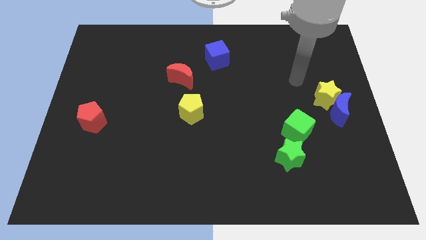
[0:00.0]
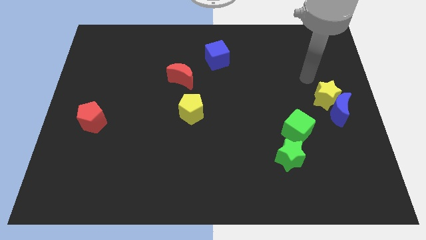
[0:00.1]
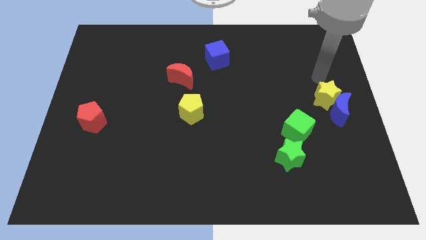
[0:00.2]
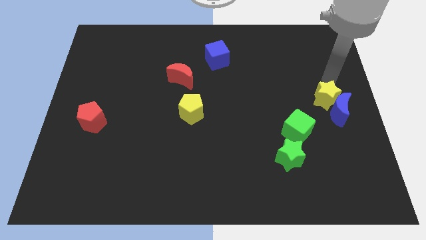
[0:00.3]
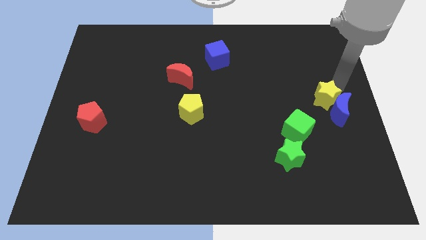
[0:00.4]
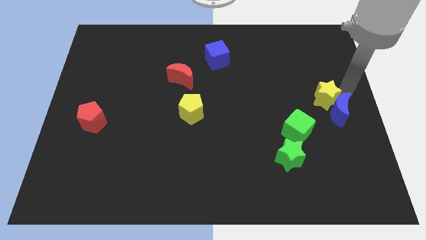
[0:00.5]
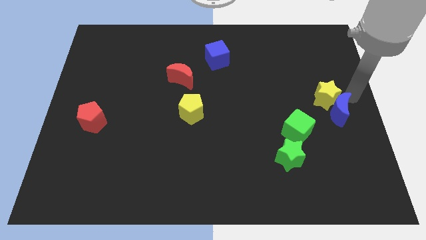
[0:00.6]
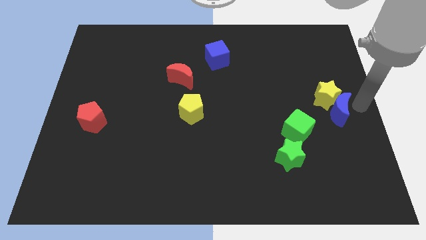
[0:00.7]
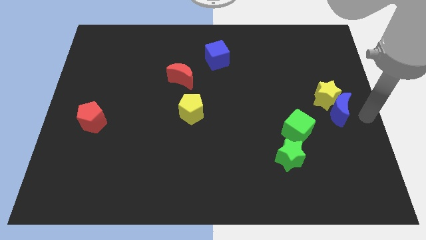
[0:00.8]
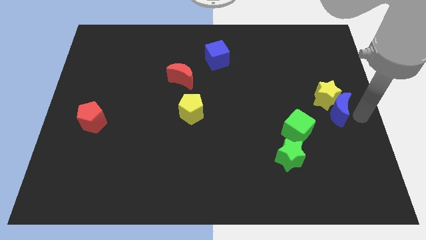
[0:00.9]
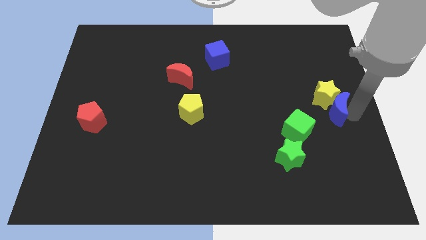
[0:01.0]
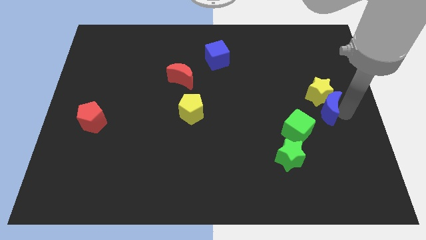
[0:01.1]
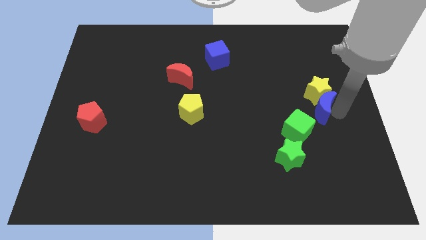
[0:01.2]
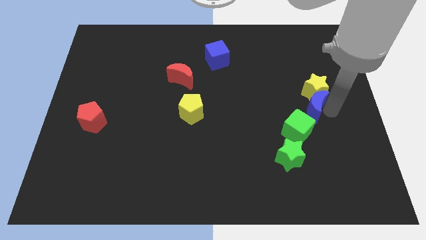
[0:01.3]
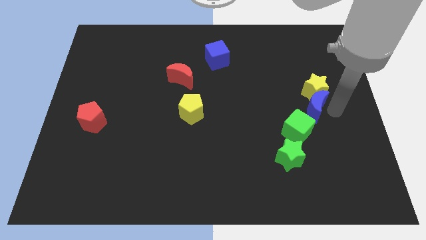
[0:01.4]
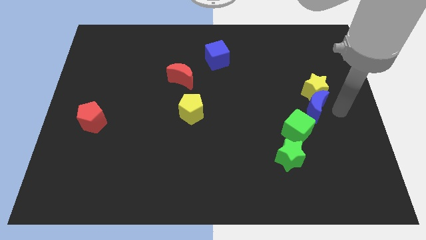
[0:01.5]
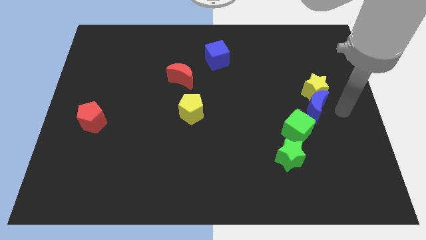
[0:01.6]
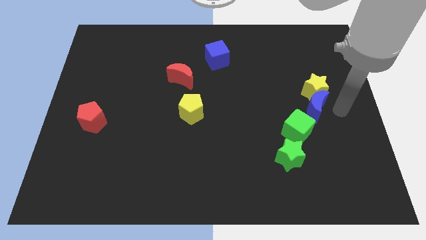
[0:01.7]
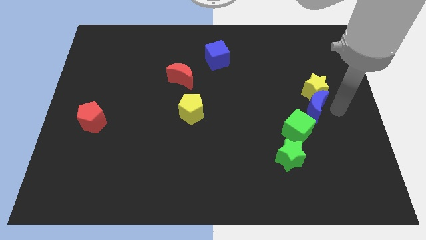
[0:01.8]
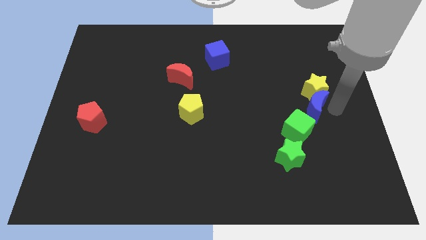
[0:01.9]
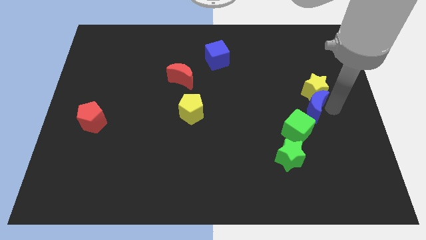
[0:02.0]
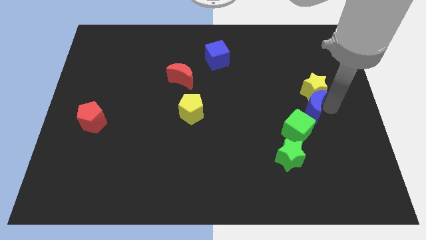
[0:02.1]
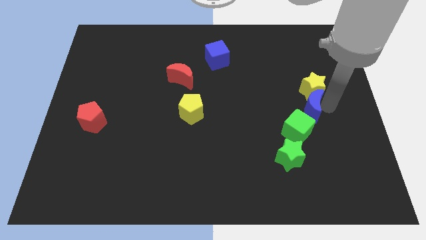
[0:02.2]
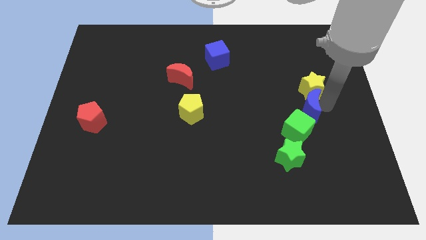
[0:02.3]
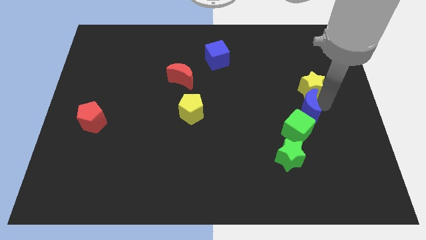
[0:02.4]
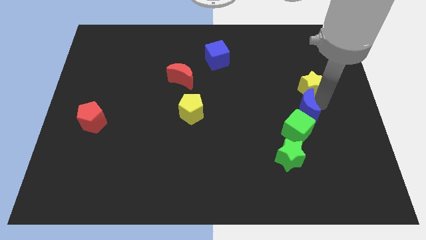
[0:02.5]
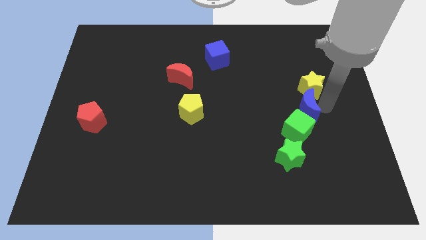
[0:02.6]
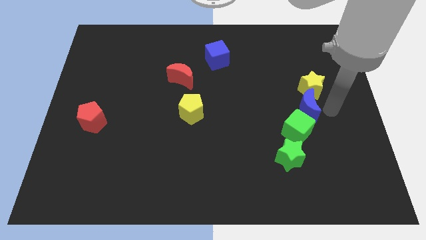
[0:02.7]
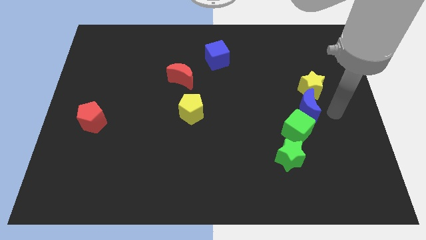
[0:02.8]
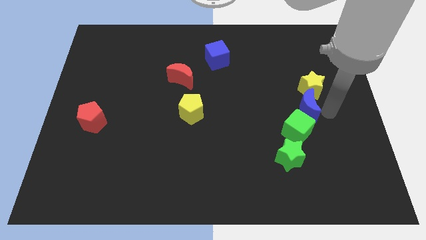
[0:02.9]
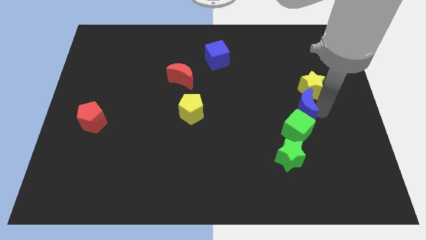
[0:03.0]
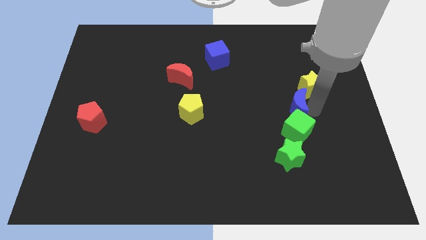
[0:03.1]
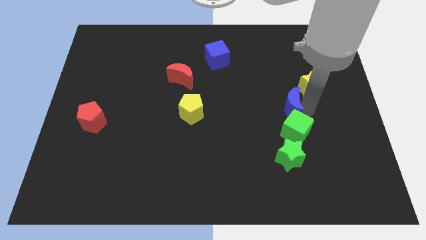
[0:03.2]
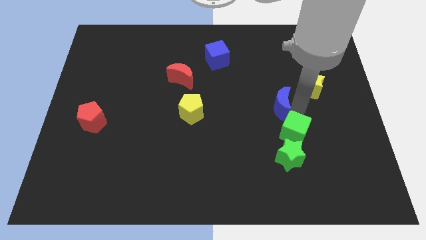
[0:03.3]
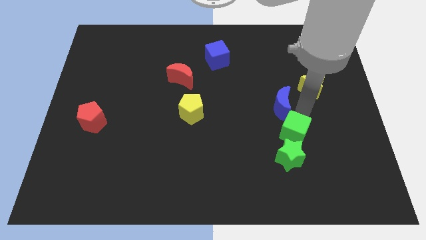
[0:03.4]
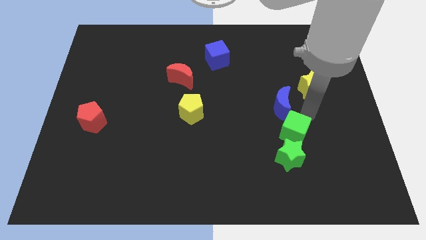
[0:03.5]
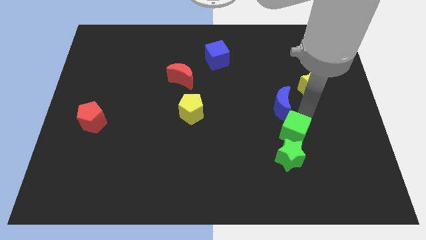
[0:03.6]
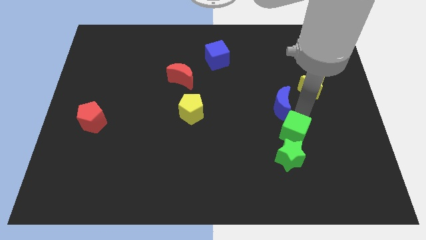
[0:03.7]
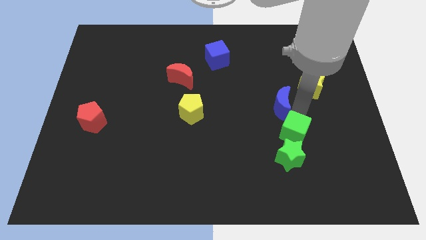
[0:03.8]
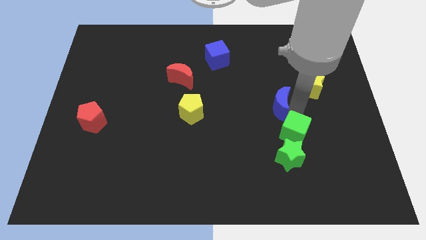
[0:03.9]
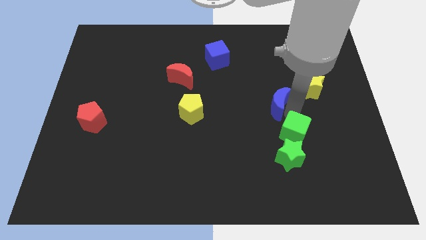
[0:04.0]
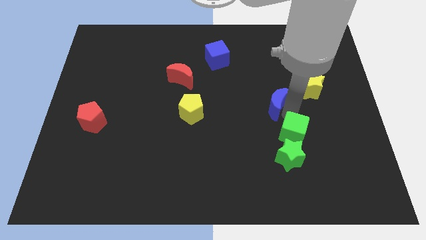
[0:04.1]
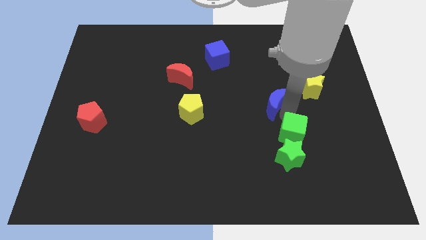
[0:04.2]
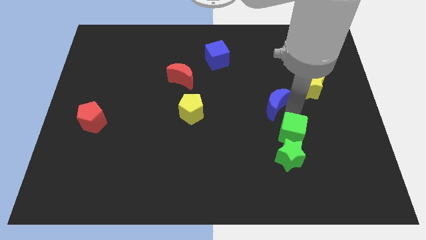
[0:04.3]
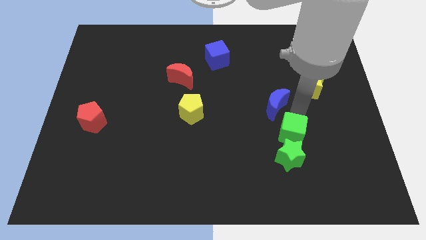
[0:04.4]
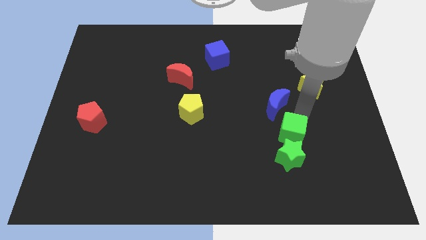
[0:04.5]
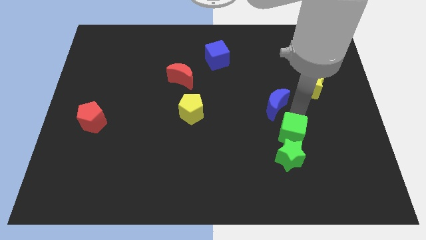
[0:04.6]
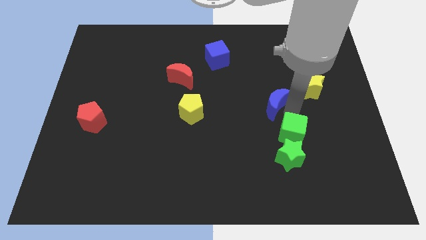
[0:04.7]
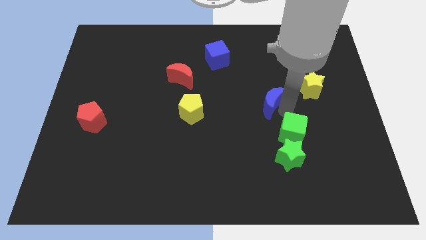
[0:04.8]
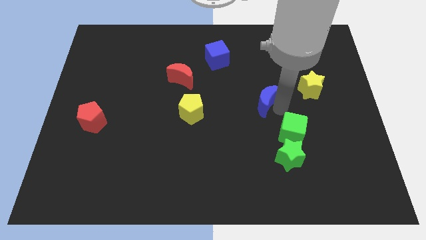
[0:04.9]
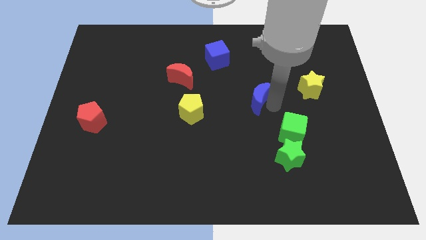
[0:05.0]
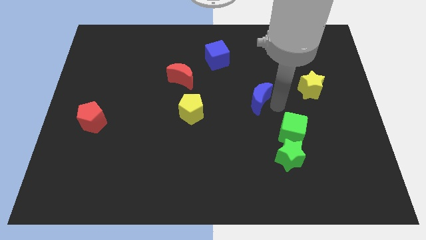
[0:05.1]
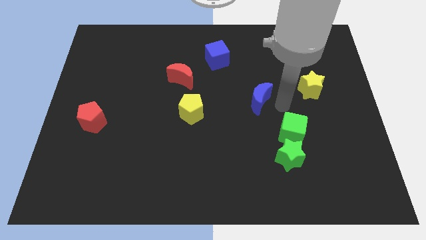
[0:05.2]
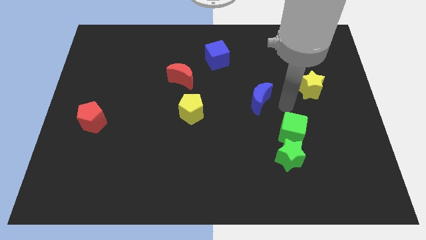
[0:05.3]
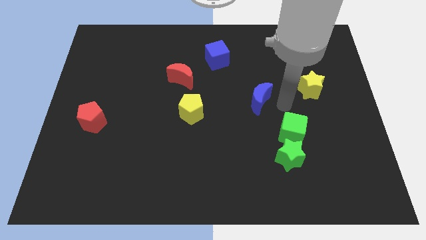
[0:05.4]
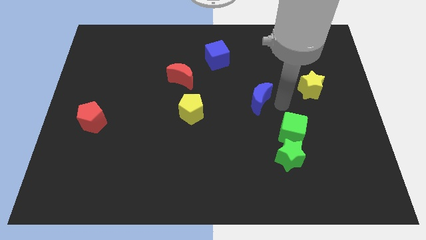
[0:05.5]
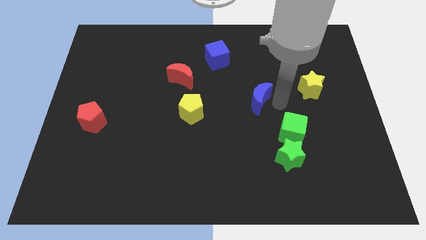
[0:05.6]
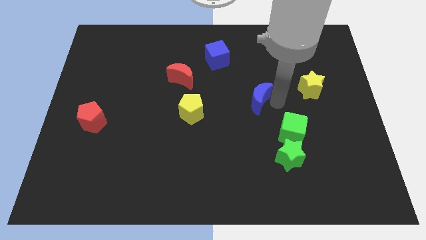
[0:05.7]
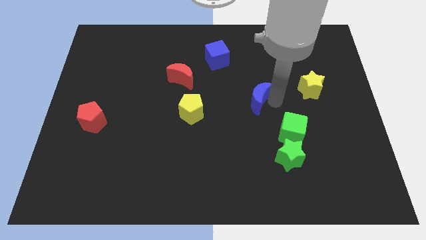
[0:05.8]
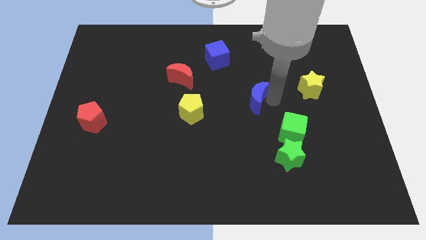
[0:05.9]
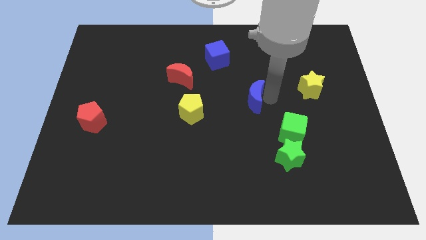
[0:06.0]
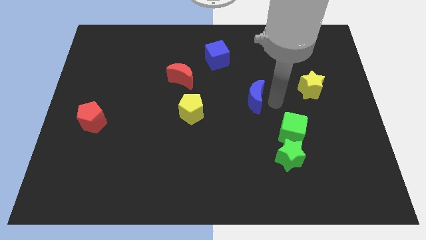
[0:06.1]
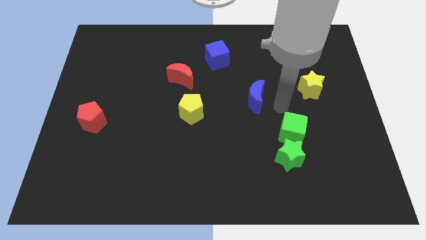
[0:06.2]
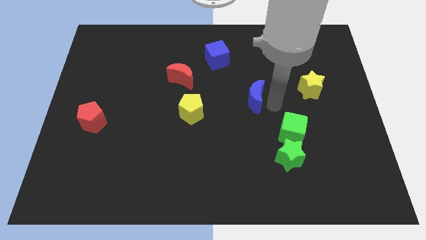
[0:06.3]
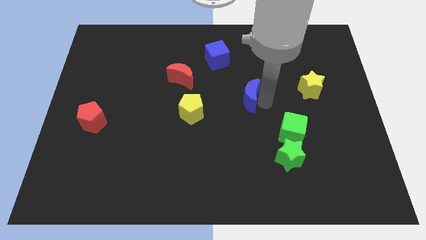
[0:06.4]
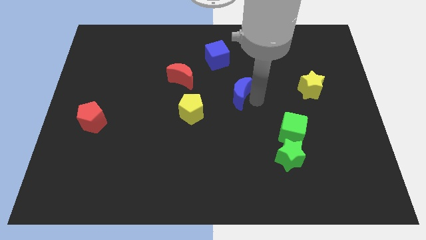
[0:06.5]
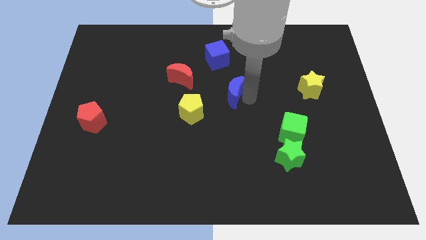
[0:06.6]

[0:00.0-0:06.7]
move the blue moon to the bottom of the blue cube

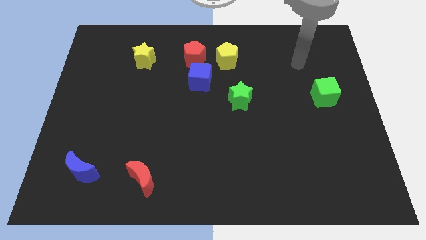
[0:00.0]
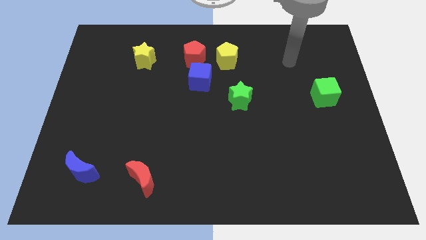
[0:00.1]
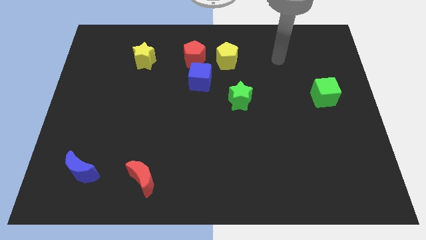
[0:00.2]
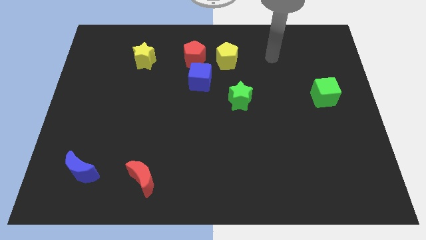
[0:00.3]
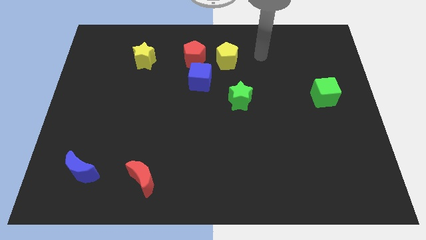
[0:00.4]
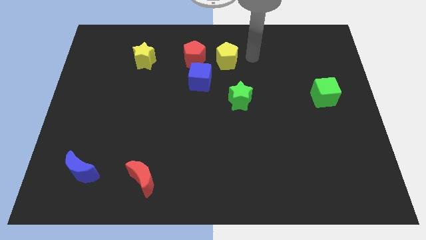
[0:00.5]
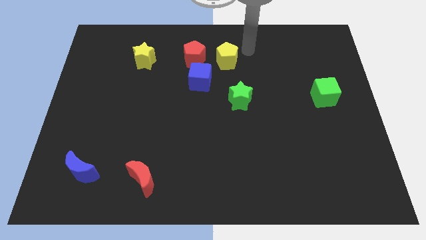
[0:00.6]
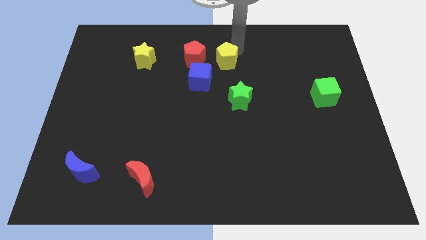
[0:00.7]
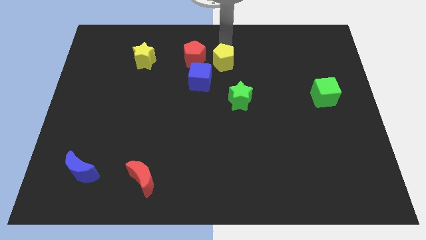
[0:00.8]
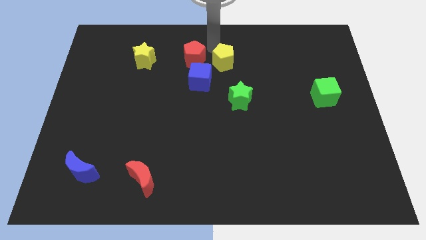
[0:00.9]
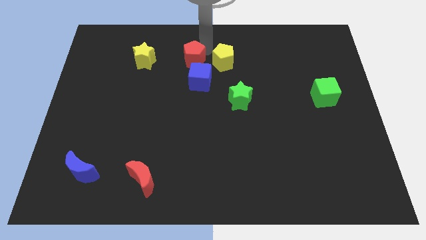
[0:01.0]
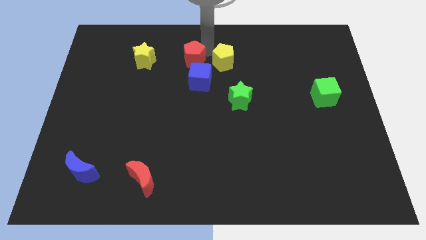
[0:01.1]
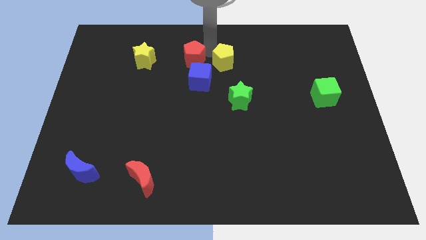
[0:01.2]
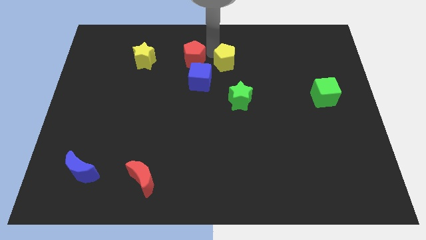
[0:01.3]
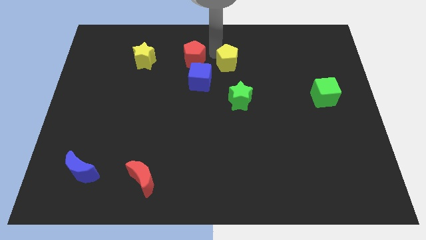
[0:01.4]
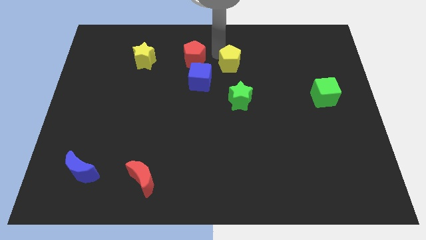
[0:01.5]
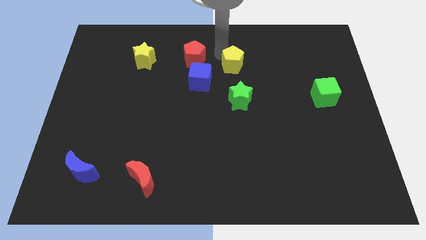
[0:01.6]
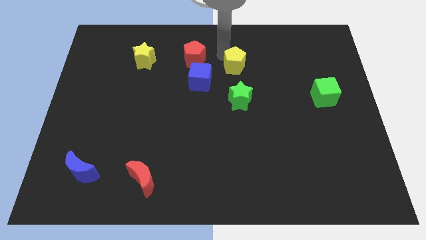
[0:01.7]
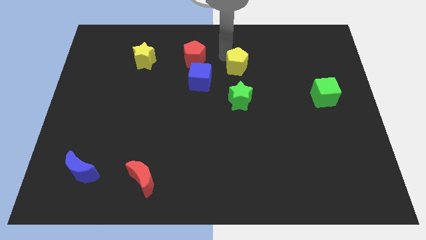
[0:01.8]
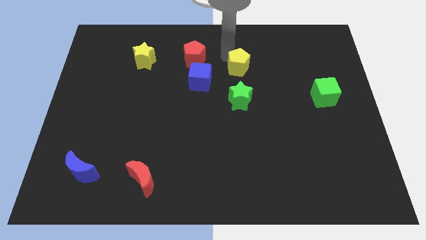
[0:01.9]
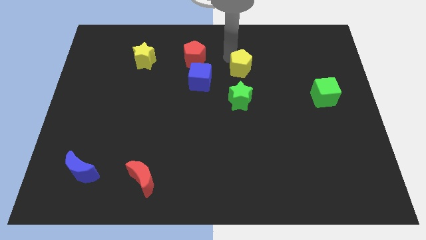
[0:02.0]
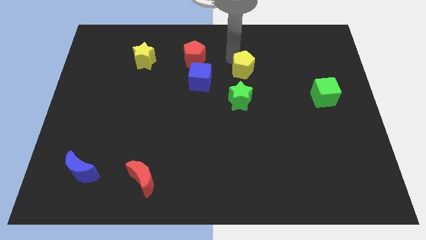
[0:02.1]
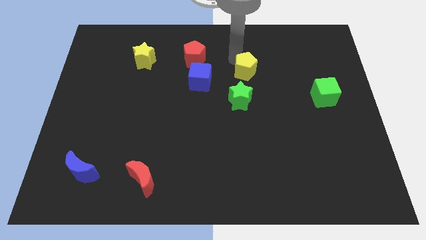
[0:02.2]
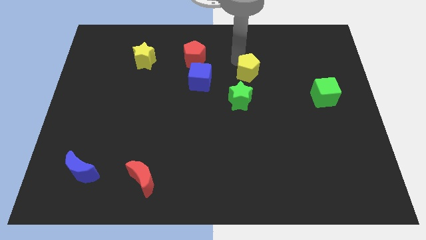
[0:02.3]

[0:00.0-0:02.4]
put the yellow pentagon to the top right side of the green star
